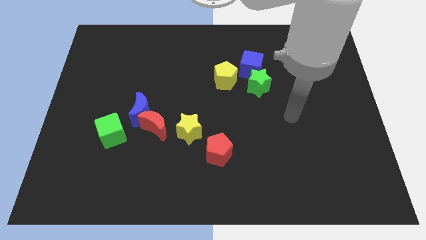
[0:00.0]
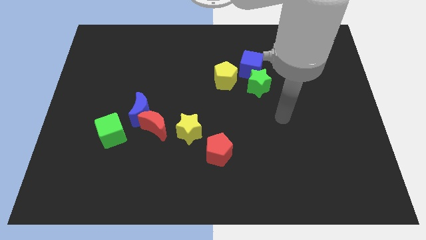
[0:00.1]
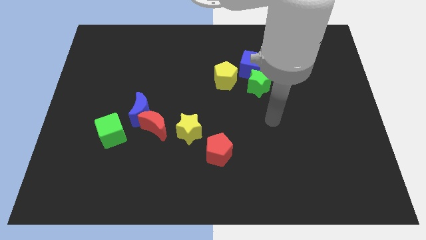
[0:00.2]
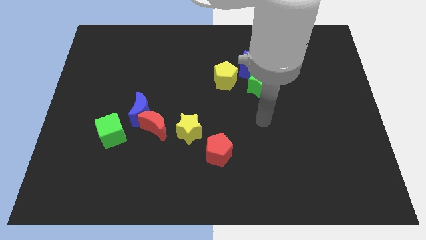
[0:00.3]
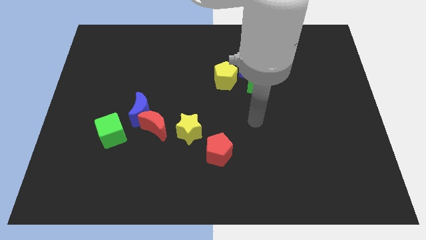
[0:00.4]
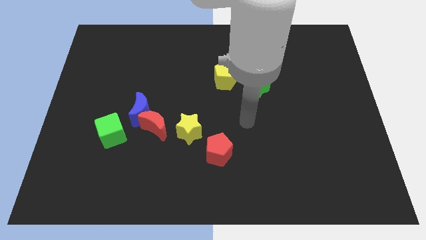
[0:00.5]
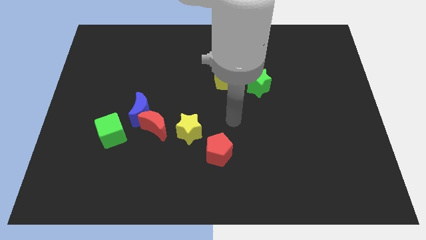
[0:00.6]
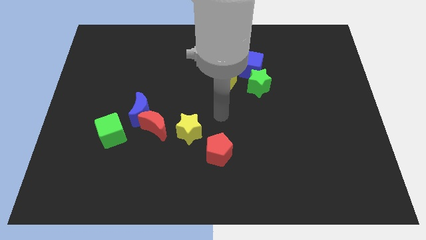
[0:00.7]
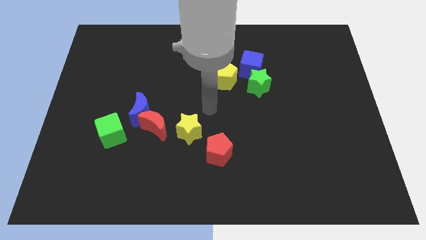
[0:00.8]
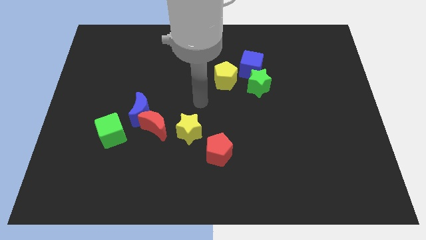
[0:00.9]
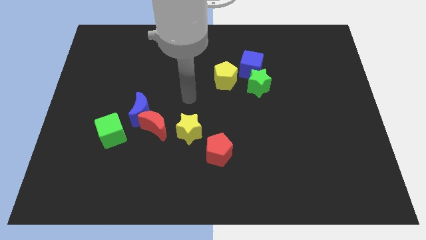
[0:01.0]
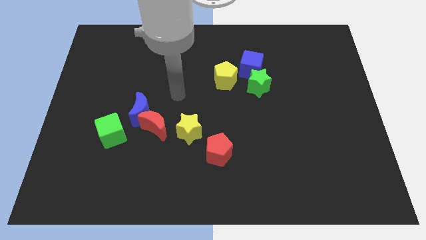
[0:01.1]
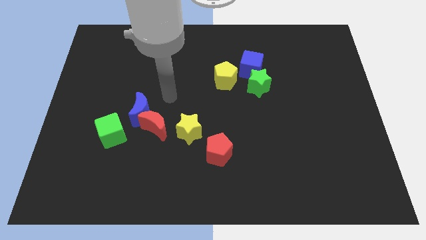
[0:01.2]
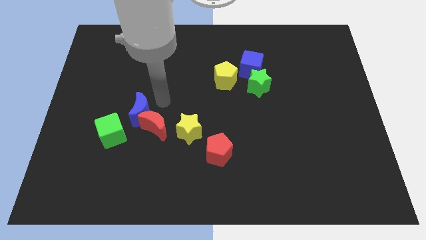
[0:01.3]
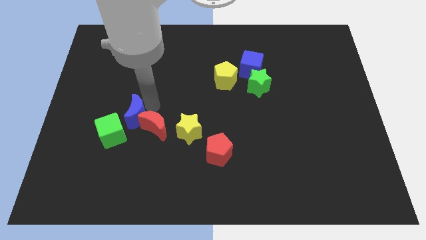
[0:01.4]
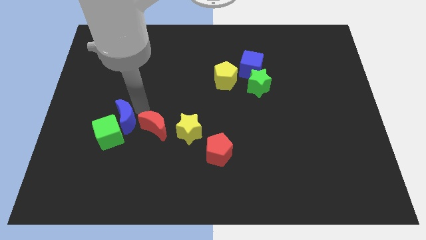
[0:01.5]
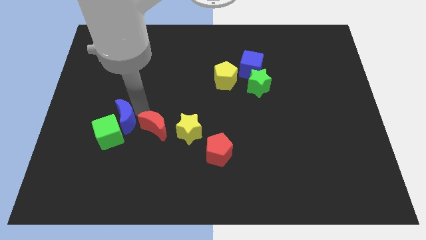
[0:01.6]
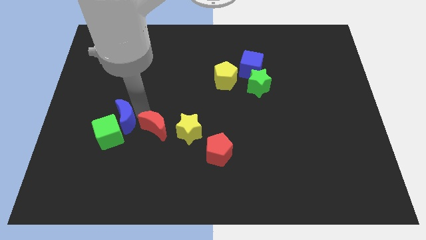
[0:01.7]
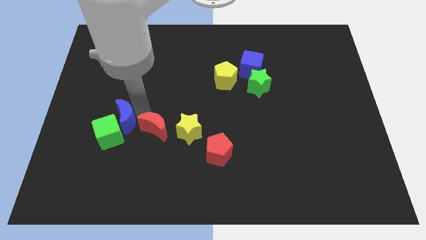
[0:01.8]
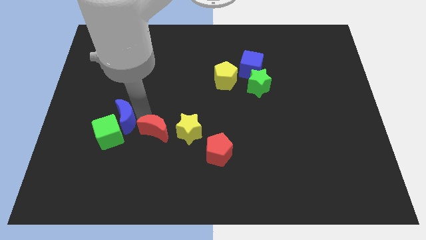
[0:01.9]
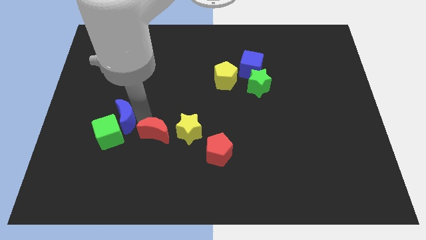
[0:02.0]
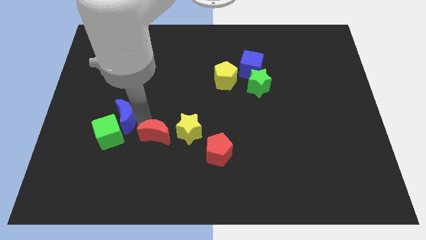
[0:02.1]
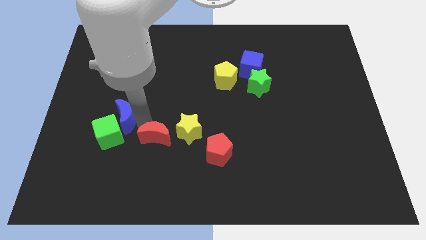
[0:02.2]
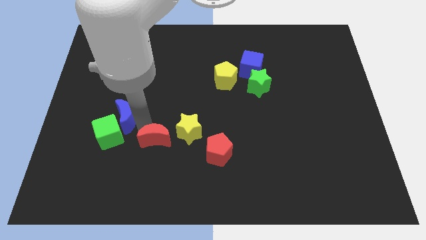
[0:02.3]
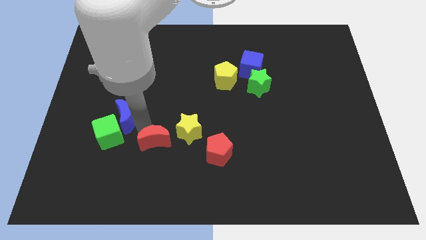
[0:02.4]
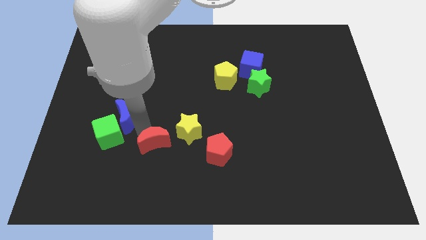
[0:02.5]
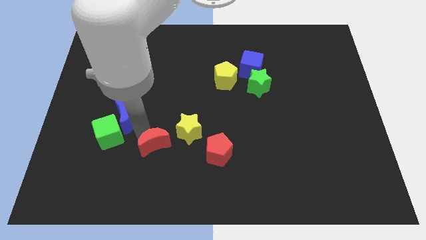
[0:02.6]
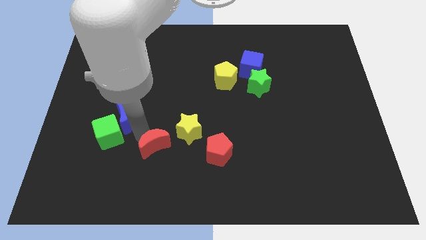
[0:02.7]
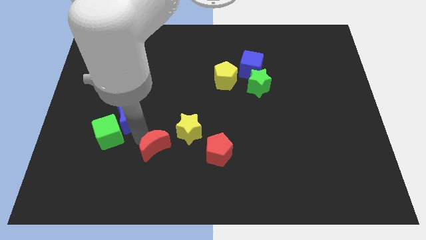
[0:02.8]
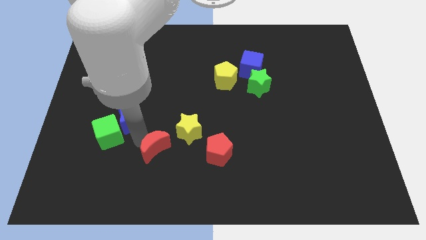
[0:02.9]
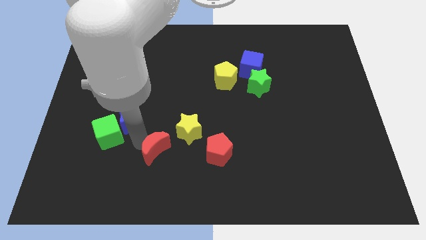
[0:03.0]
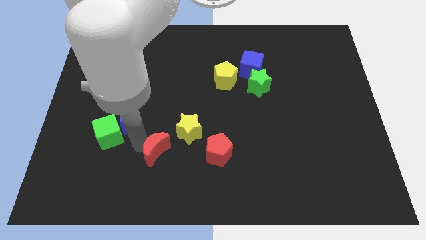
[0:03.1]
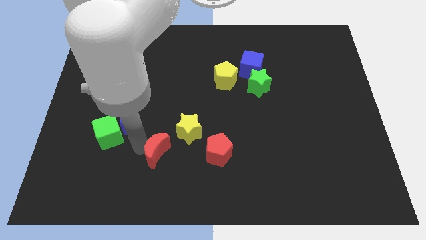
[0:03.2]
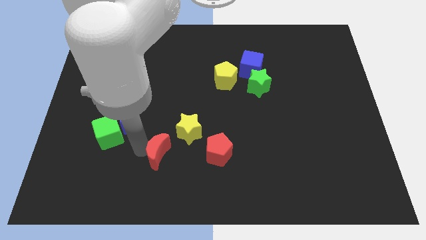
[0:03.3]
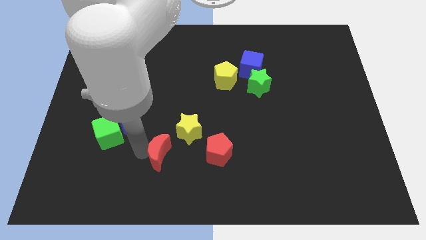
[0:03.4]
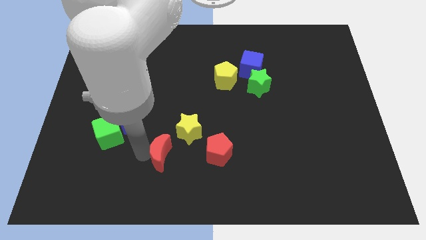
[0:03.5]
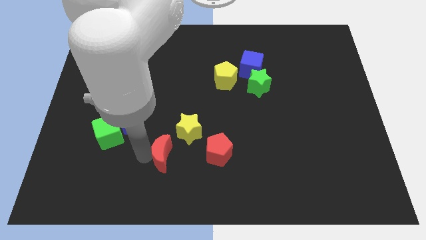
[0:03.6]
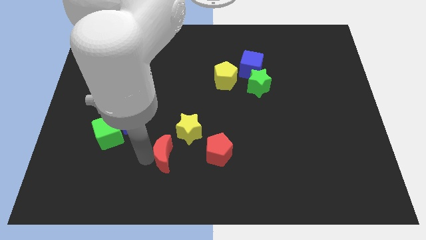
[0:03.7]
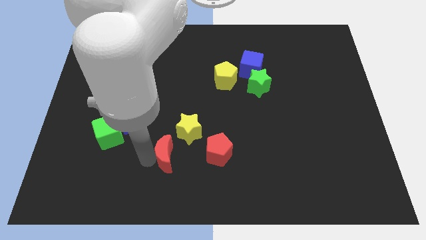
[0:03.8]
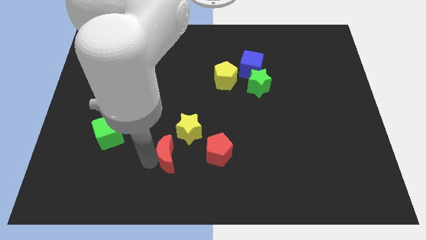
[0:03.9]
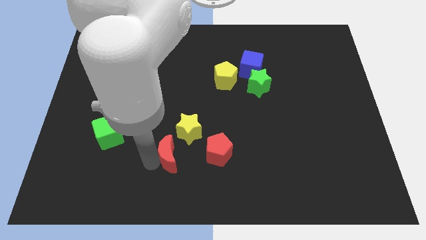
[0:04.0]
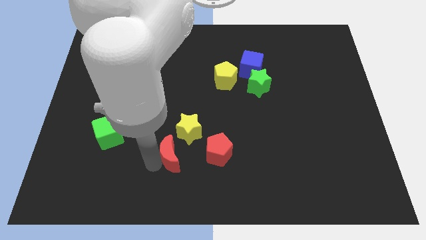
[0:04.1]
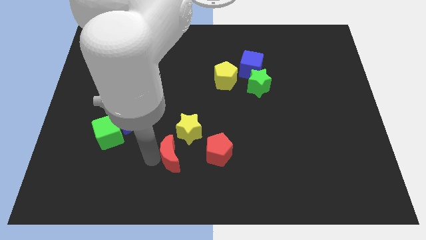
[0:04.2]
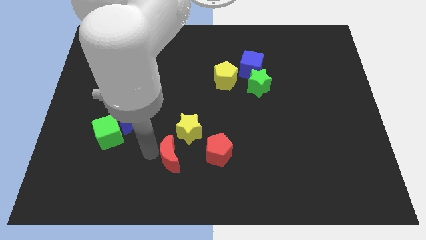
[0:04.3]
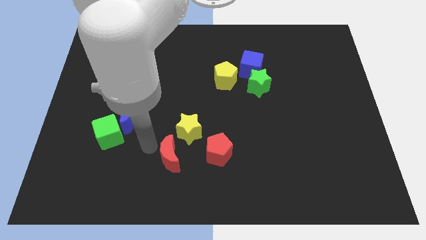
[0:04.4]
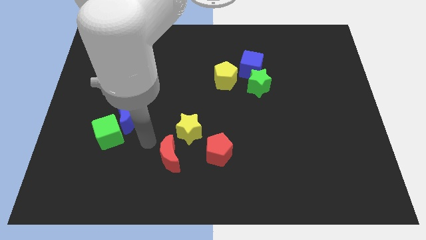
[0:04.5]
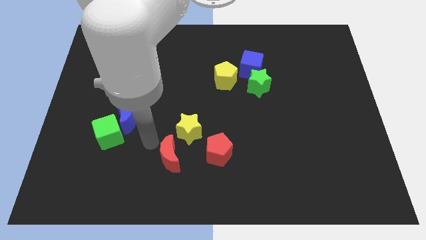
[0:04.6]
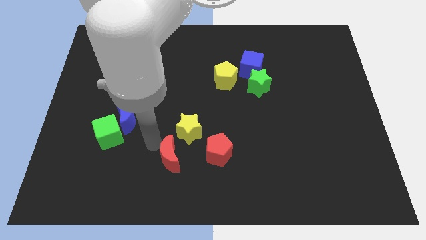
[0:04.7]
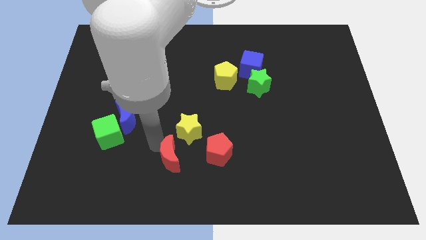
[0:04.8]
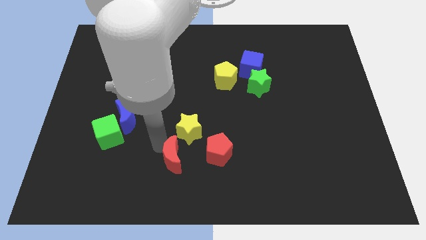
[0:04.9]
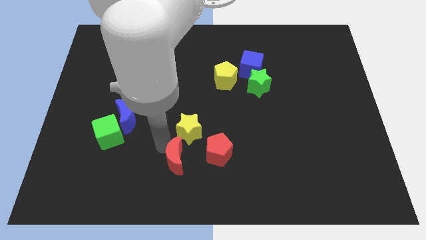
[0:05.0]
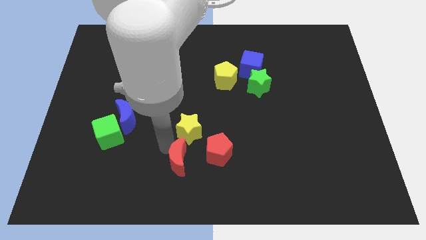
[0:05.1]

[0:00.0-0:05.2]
move the red moon diagonally down and to the left of the red pentagon
